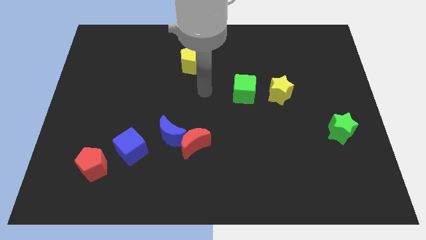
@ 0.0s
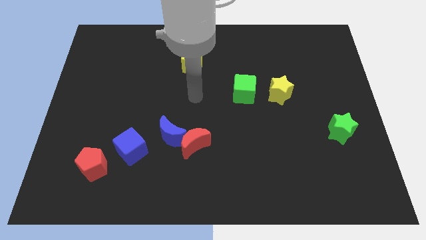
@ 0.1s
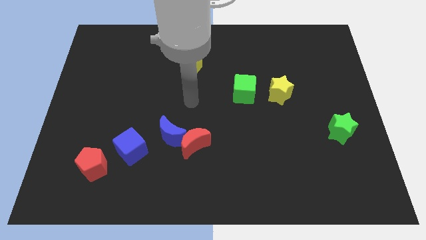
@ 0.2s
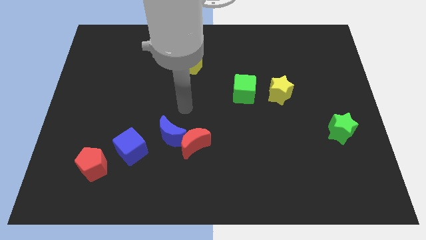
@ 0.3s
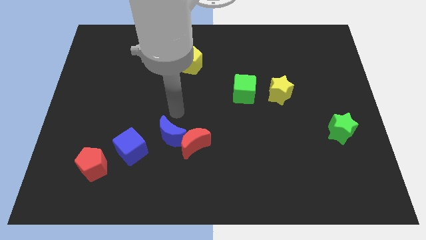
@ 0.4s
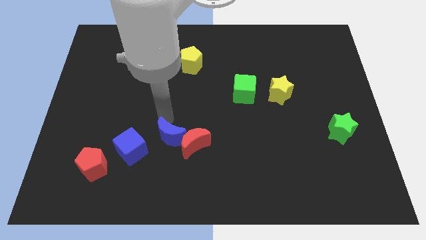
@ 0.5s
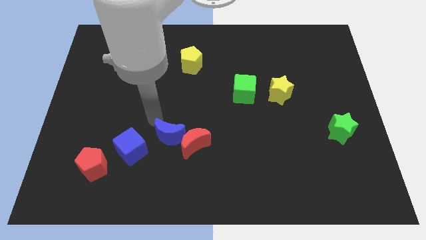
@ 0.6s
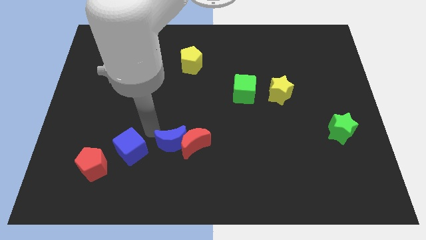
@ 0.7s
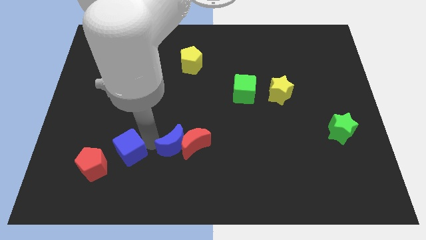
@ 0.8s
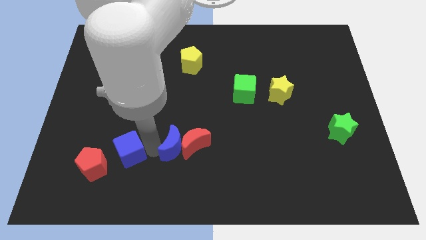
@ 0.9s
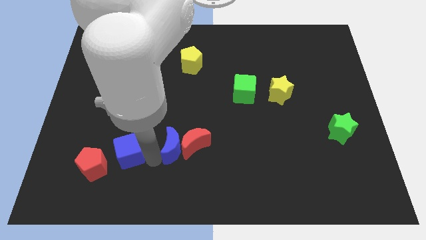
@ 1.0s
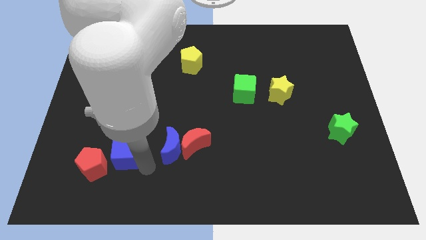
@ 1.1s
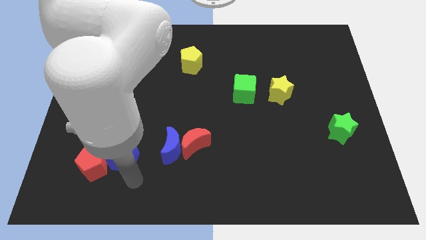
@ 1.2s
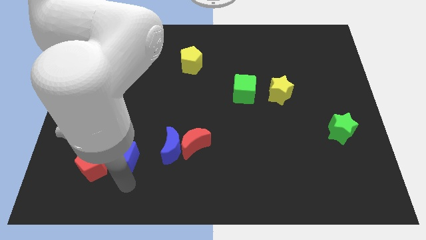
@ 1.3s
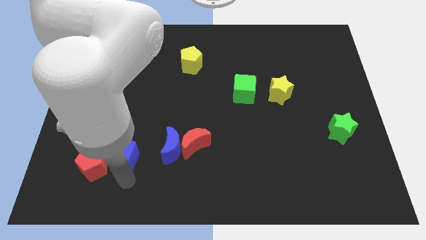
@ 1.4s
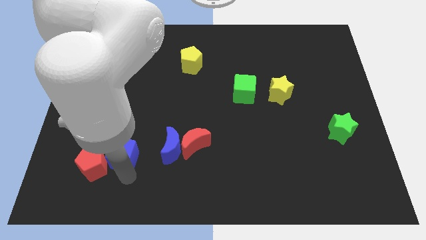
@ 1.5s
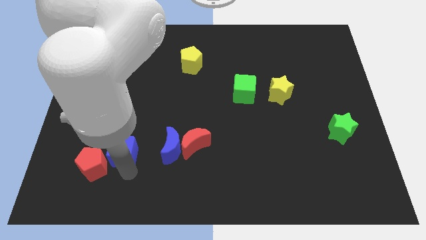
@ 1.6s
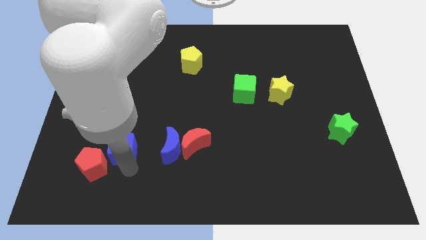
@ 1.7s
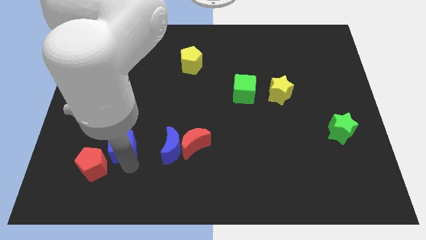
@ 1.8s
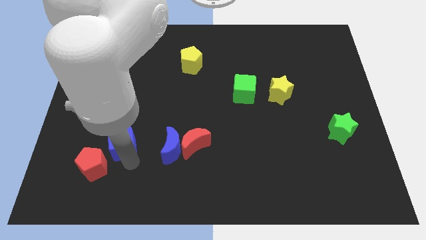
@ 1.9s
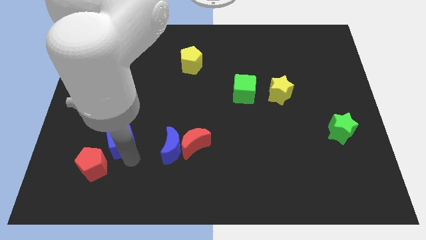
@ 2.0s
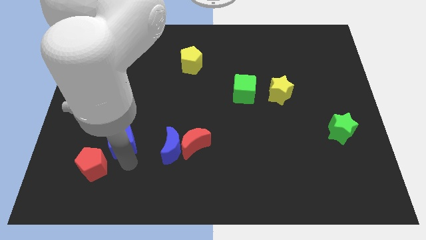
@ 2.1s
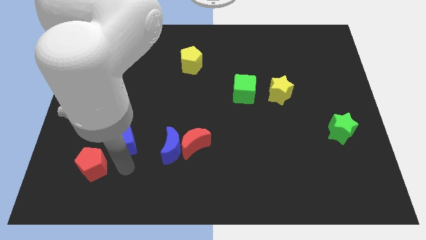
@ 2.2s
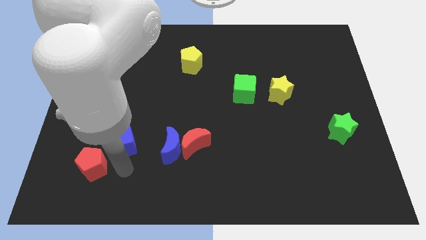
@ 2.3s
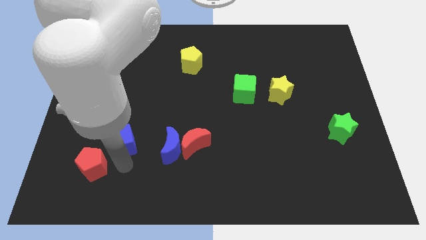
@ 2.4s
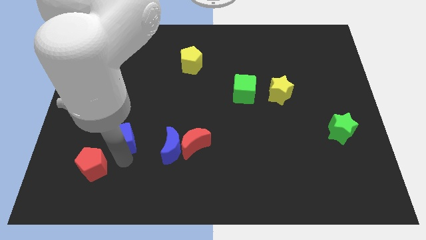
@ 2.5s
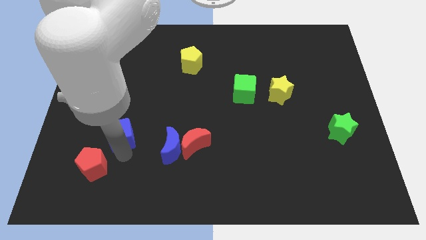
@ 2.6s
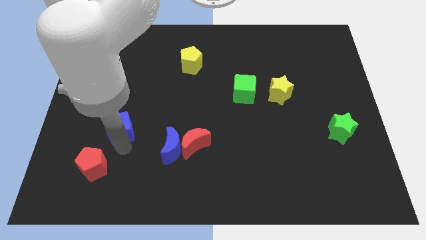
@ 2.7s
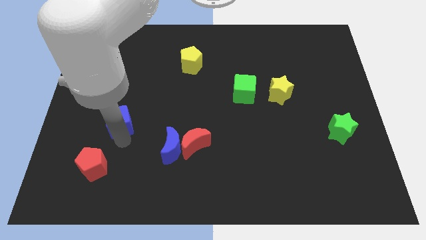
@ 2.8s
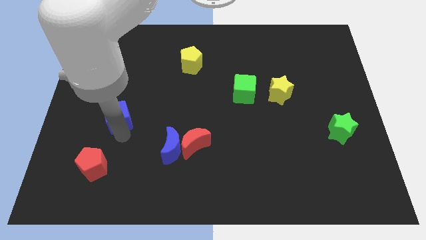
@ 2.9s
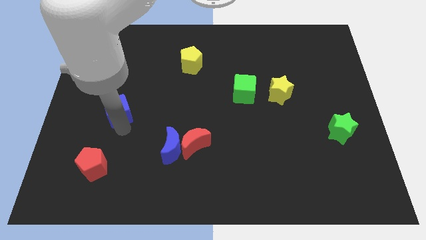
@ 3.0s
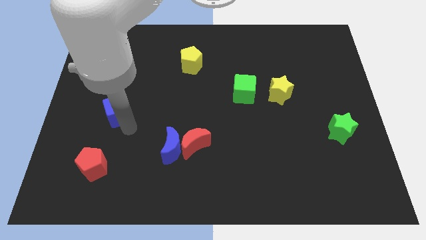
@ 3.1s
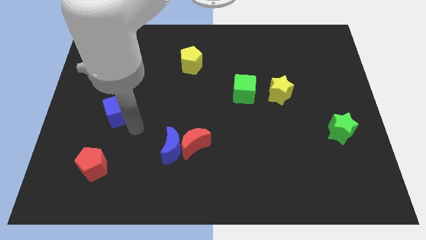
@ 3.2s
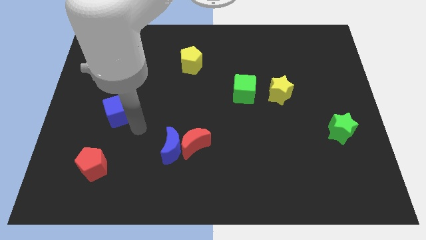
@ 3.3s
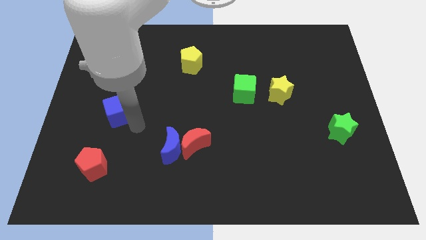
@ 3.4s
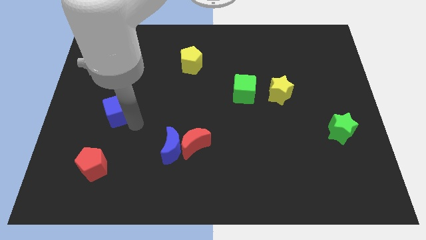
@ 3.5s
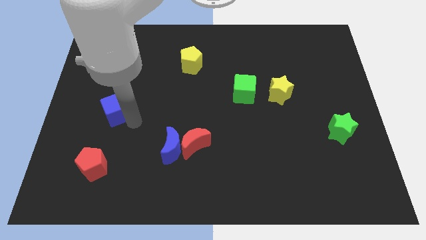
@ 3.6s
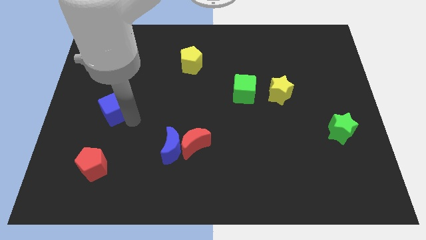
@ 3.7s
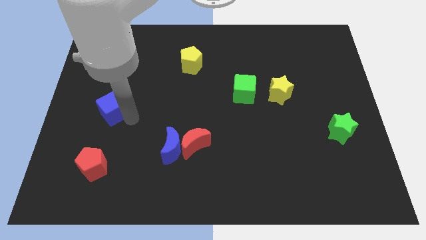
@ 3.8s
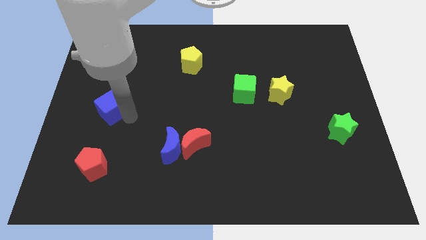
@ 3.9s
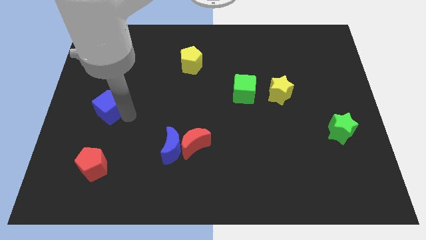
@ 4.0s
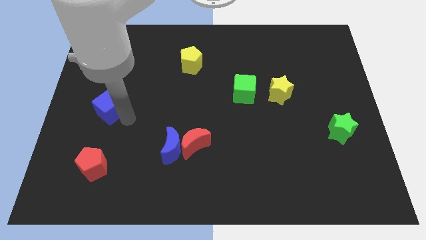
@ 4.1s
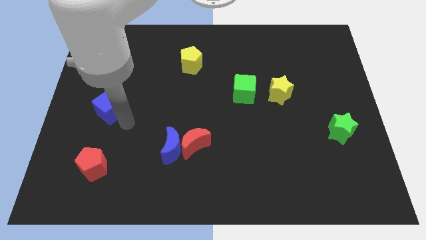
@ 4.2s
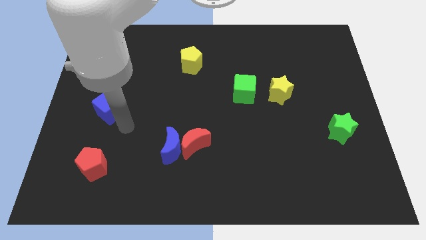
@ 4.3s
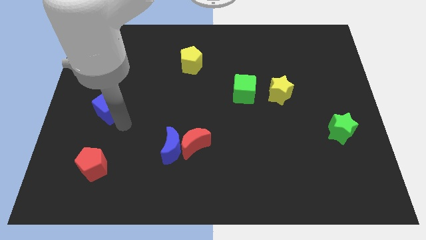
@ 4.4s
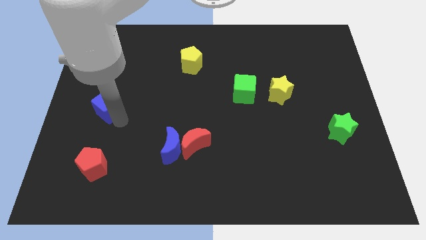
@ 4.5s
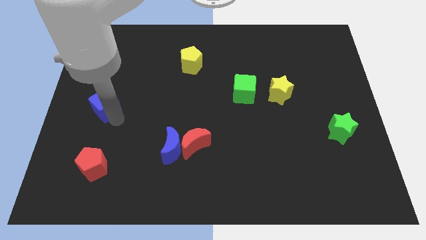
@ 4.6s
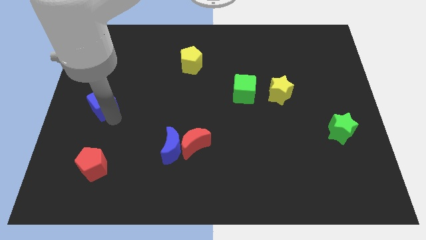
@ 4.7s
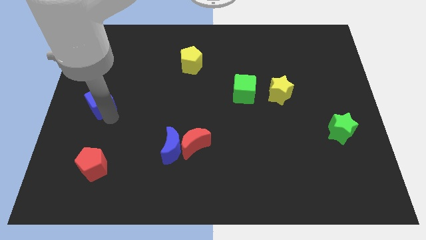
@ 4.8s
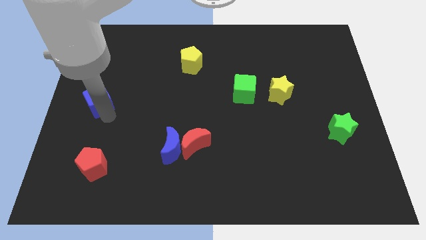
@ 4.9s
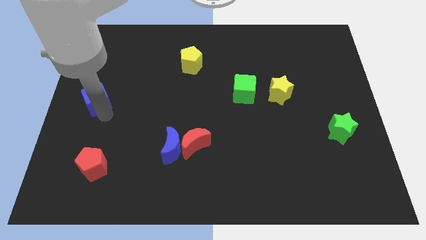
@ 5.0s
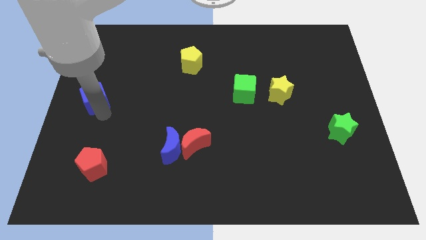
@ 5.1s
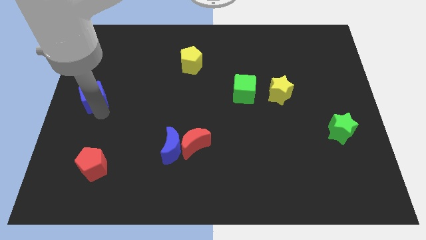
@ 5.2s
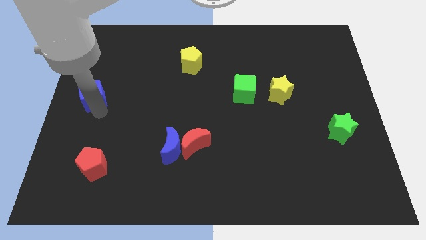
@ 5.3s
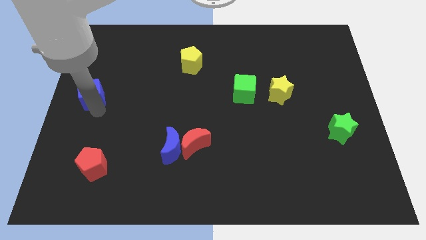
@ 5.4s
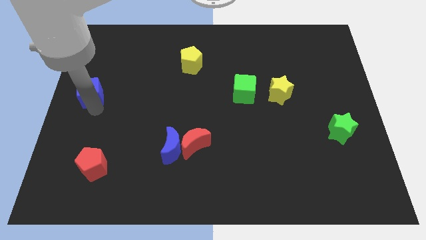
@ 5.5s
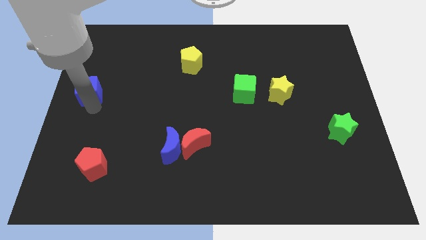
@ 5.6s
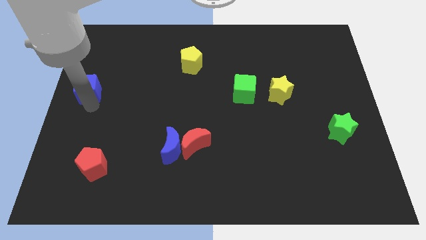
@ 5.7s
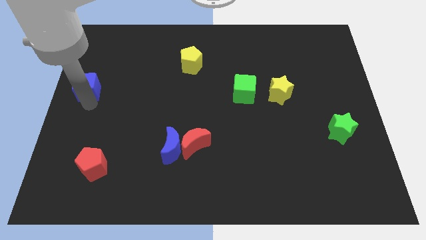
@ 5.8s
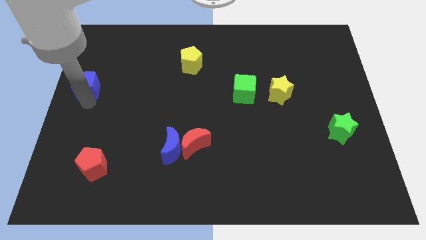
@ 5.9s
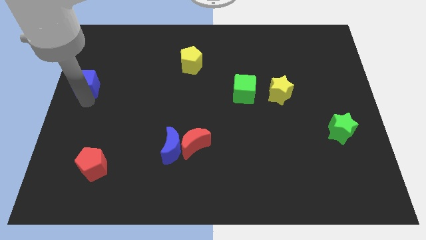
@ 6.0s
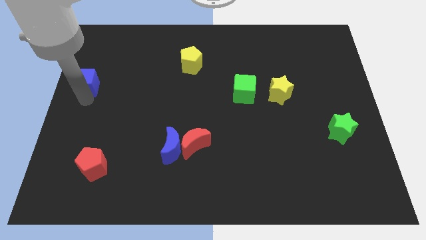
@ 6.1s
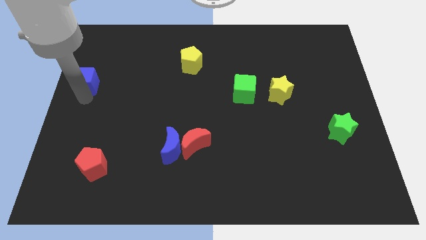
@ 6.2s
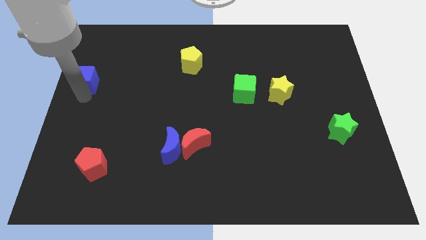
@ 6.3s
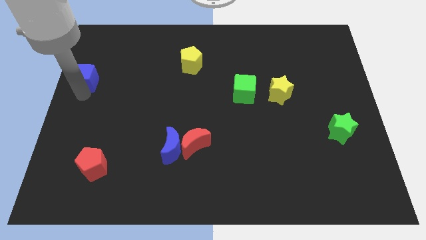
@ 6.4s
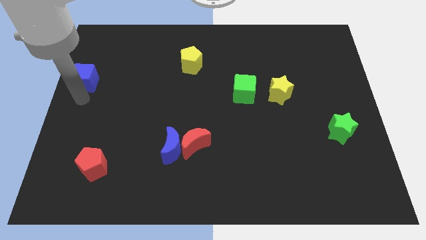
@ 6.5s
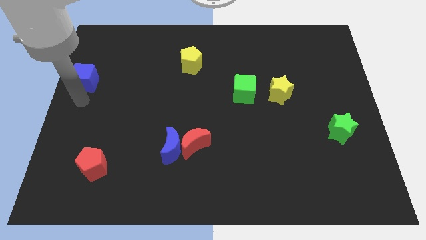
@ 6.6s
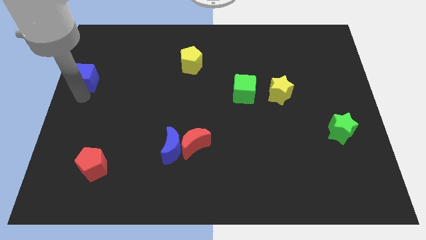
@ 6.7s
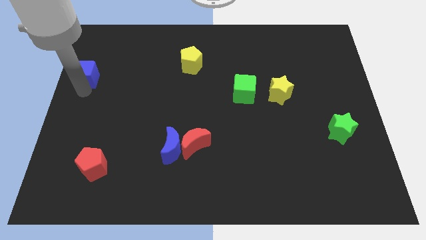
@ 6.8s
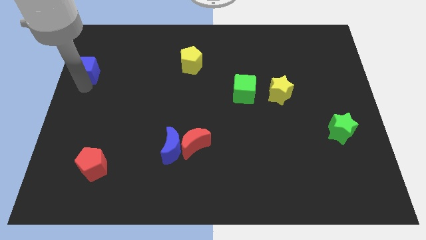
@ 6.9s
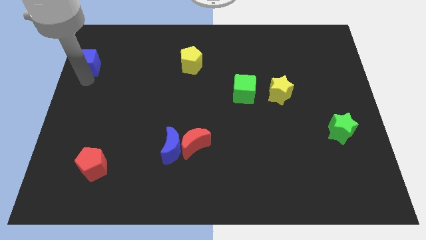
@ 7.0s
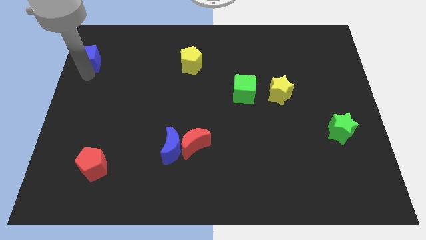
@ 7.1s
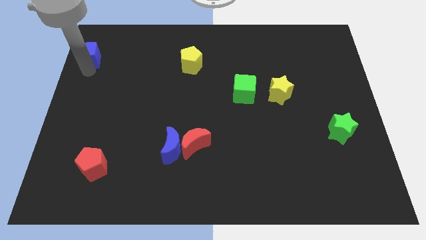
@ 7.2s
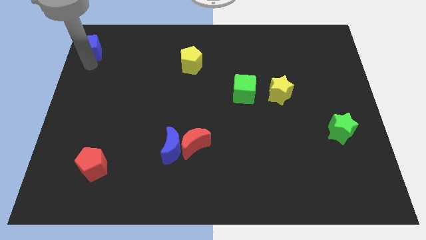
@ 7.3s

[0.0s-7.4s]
put the blue cube to the top left
